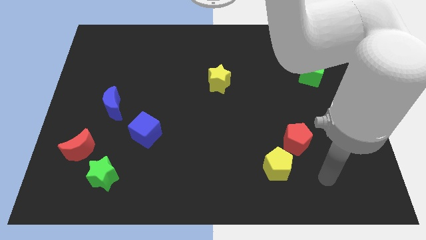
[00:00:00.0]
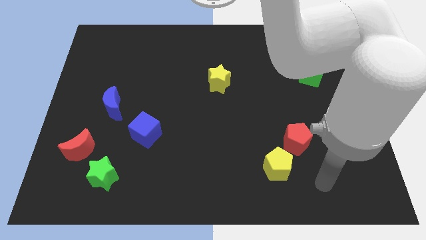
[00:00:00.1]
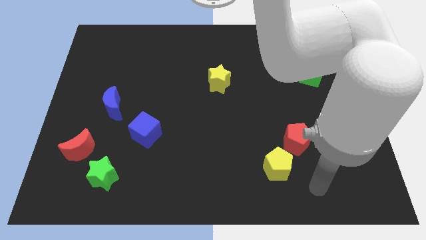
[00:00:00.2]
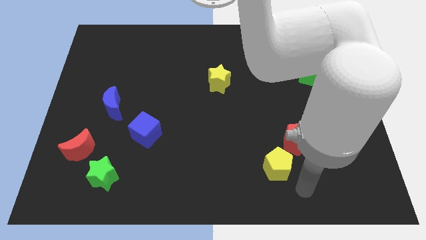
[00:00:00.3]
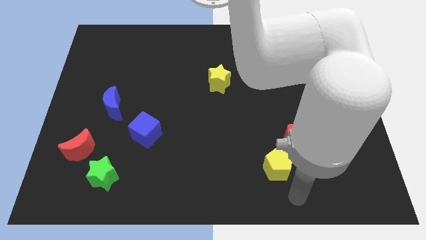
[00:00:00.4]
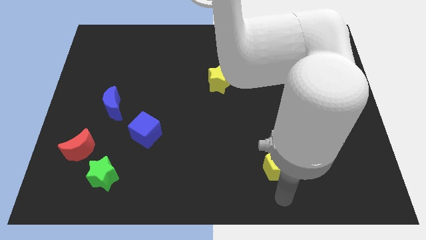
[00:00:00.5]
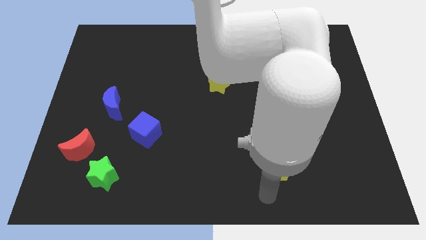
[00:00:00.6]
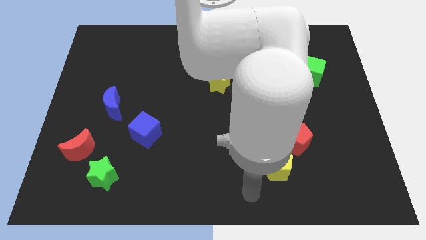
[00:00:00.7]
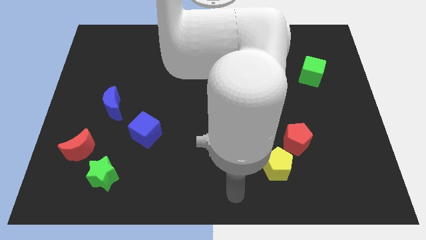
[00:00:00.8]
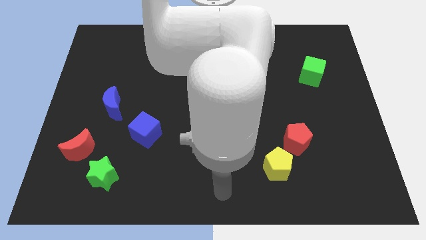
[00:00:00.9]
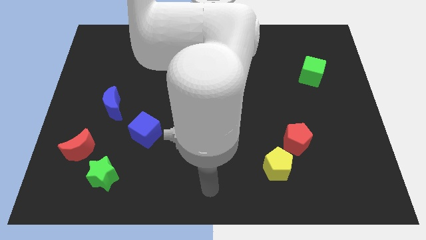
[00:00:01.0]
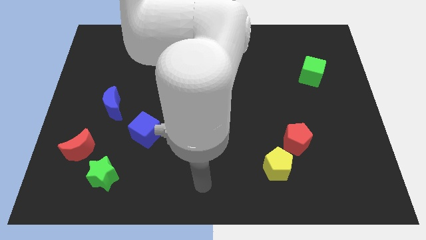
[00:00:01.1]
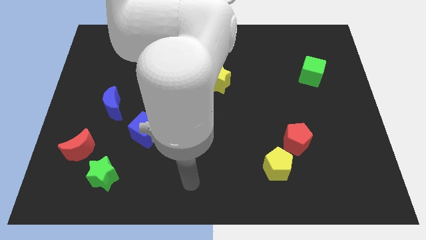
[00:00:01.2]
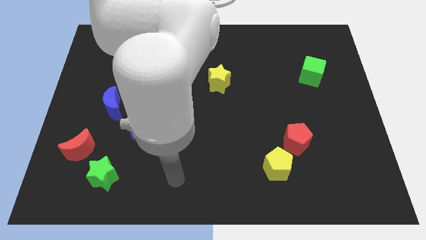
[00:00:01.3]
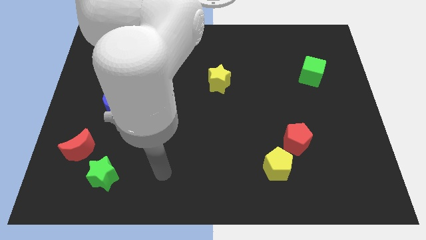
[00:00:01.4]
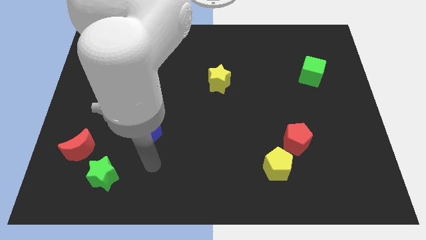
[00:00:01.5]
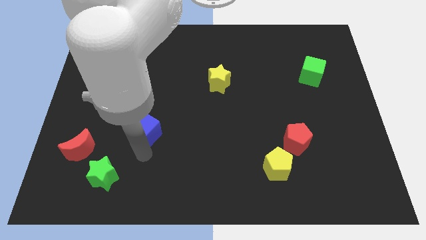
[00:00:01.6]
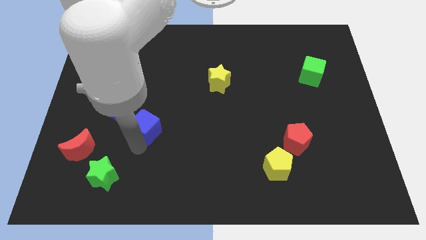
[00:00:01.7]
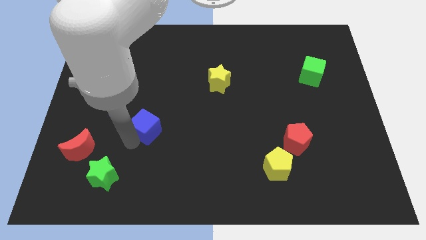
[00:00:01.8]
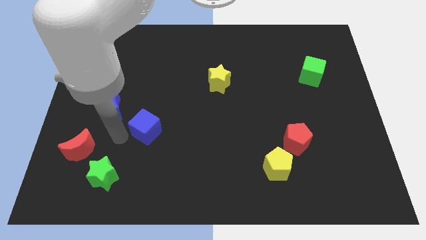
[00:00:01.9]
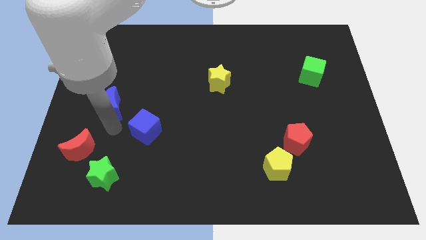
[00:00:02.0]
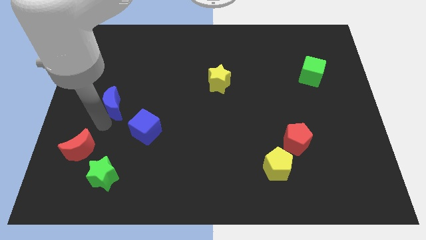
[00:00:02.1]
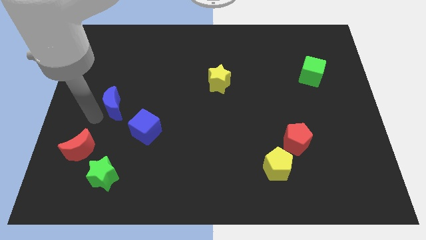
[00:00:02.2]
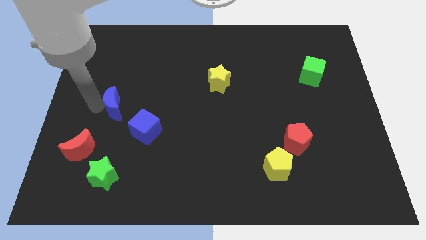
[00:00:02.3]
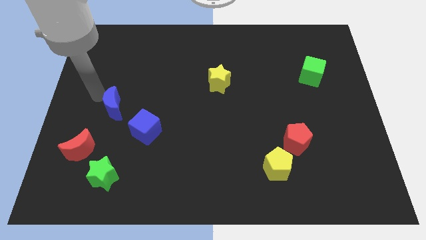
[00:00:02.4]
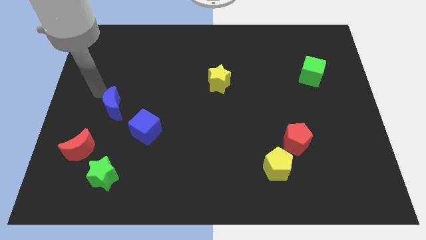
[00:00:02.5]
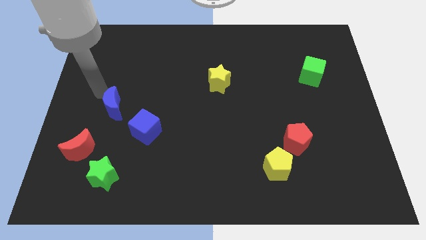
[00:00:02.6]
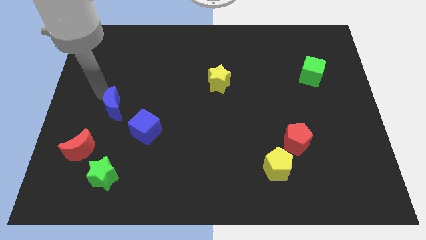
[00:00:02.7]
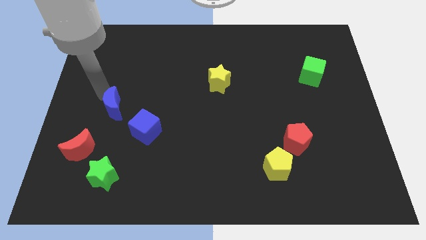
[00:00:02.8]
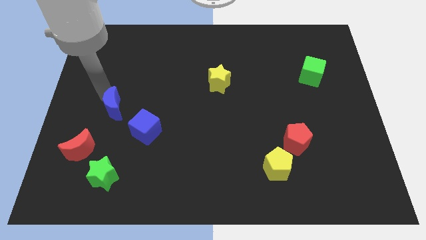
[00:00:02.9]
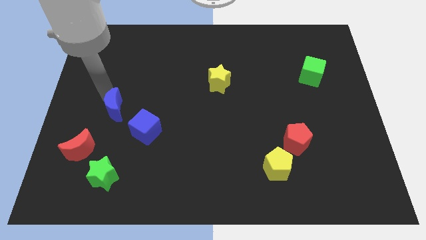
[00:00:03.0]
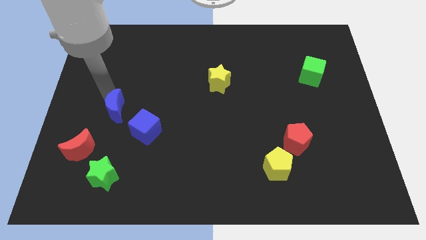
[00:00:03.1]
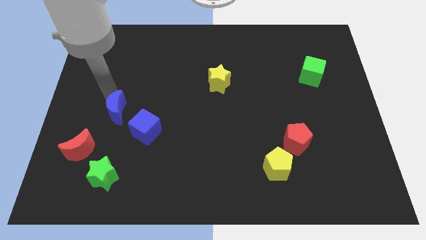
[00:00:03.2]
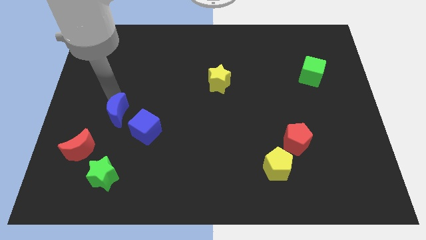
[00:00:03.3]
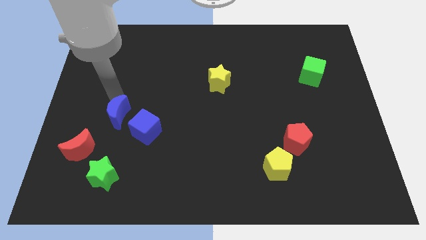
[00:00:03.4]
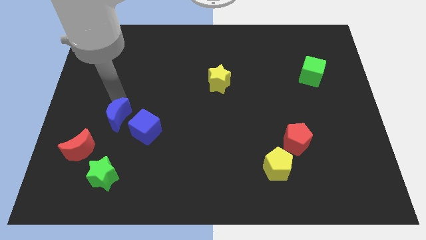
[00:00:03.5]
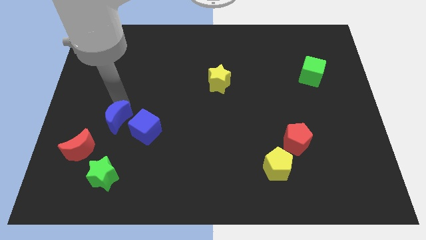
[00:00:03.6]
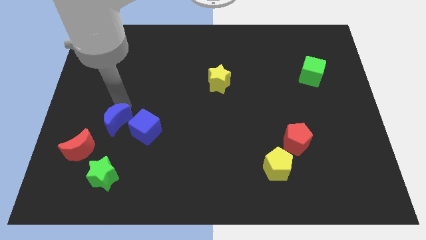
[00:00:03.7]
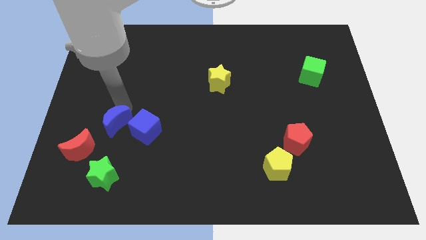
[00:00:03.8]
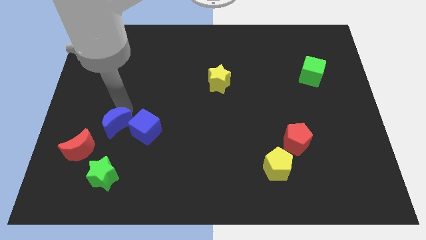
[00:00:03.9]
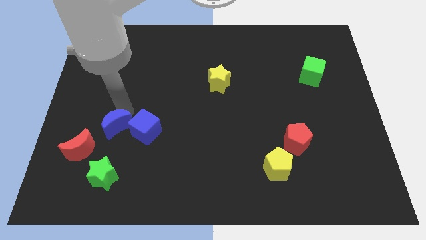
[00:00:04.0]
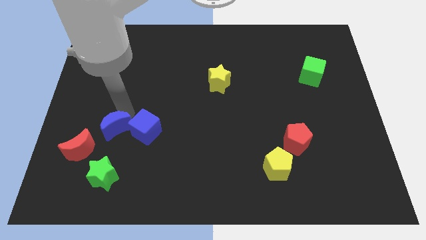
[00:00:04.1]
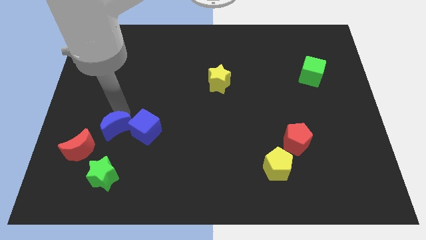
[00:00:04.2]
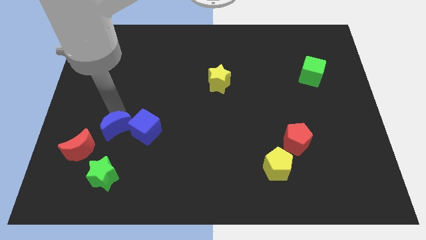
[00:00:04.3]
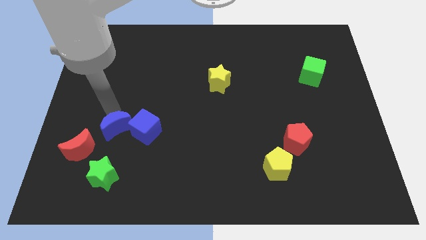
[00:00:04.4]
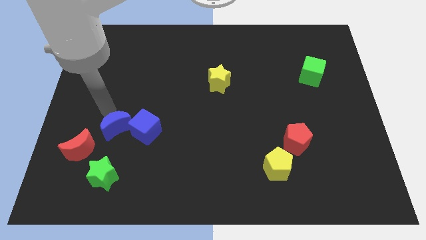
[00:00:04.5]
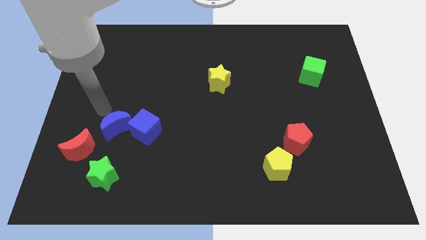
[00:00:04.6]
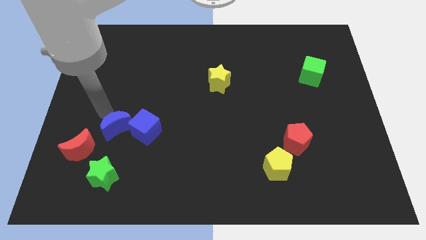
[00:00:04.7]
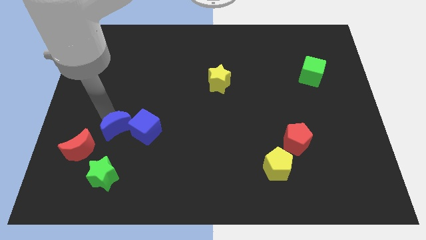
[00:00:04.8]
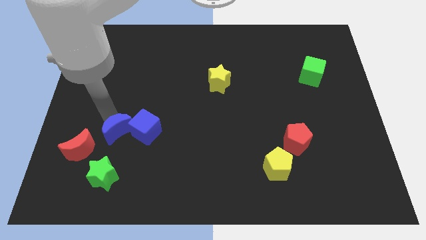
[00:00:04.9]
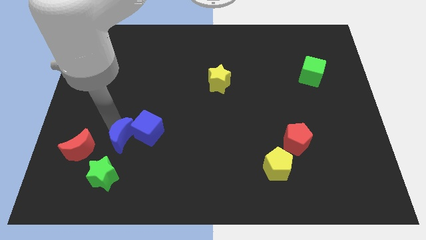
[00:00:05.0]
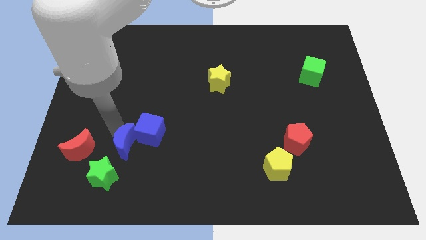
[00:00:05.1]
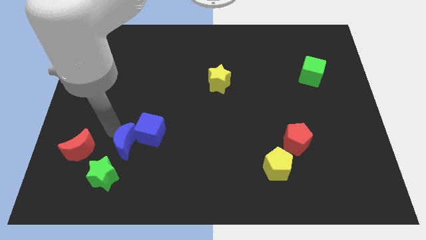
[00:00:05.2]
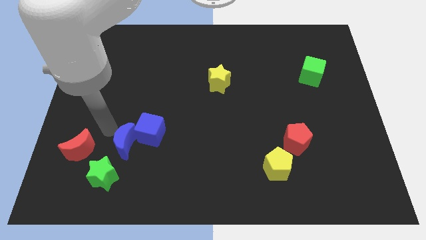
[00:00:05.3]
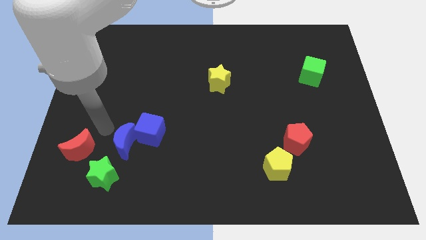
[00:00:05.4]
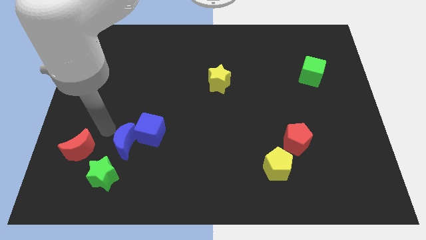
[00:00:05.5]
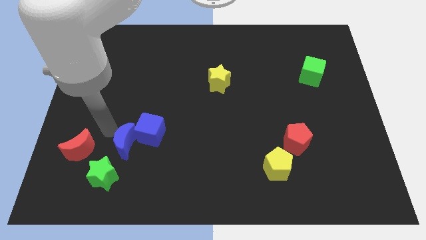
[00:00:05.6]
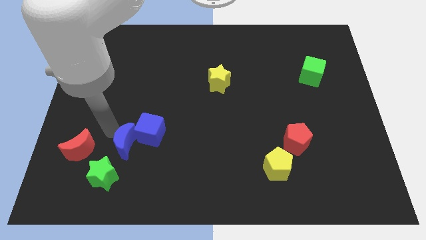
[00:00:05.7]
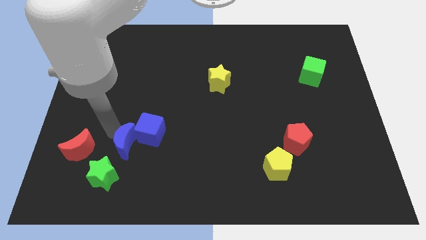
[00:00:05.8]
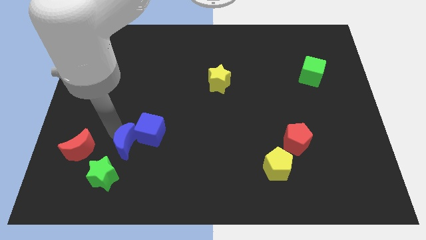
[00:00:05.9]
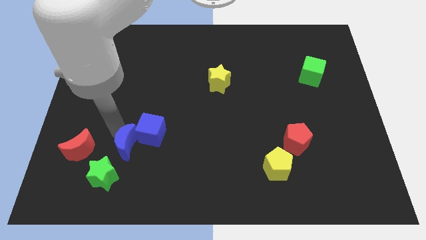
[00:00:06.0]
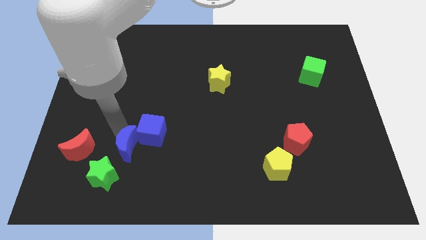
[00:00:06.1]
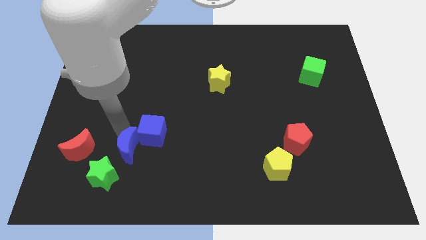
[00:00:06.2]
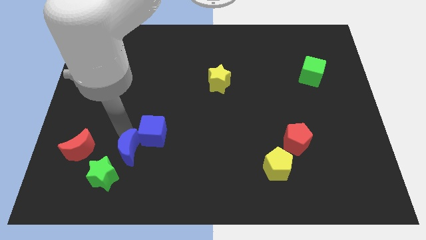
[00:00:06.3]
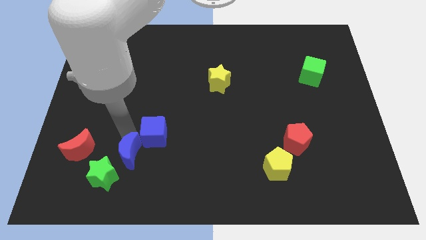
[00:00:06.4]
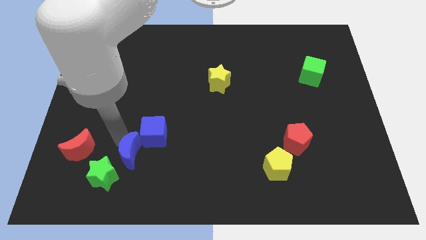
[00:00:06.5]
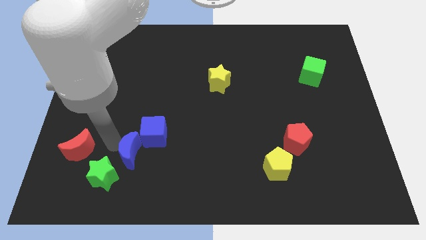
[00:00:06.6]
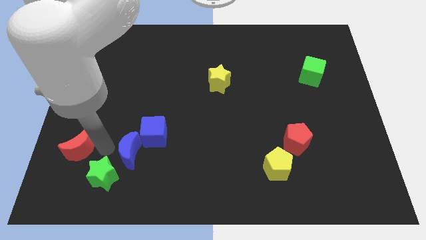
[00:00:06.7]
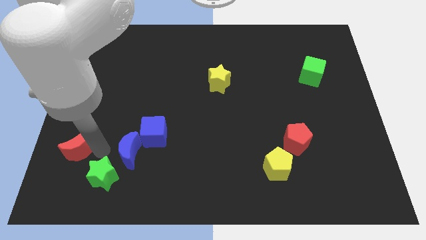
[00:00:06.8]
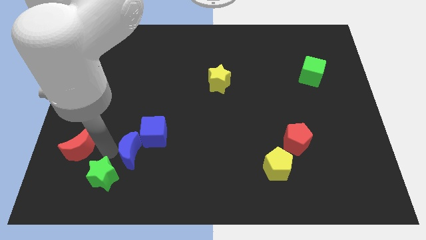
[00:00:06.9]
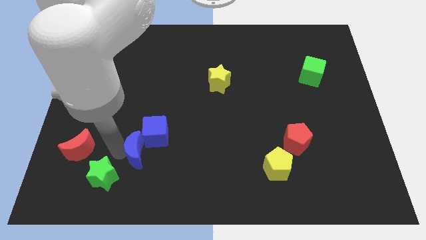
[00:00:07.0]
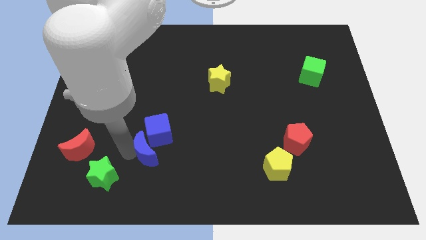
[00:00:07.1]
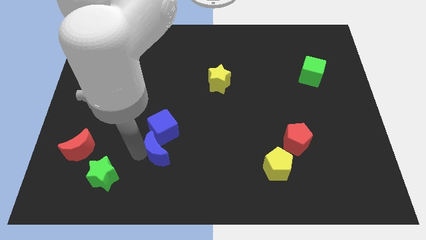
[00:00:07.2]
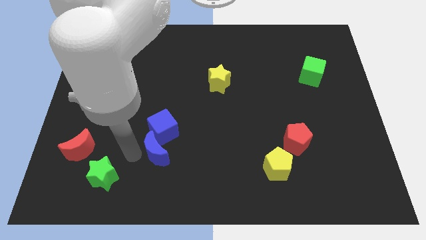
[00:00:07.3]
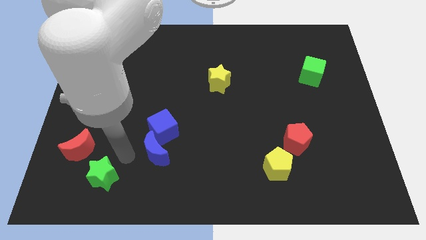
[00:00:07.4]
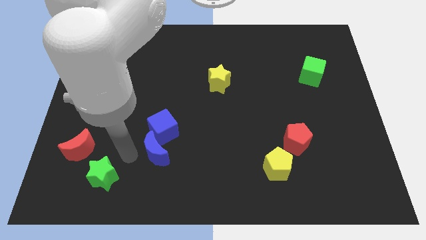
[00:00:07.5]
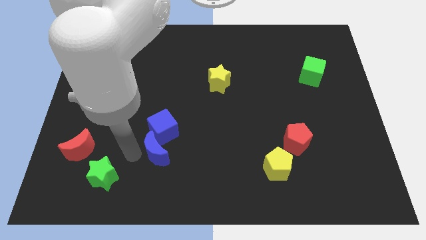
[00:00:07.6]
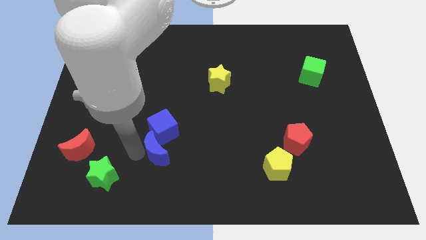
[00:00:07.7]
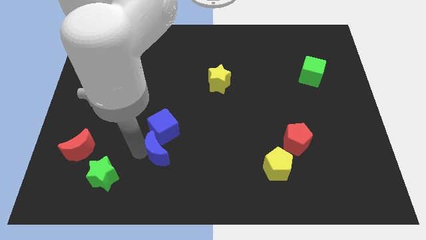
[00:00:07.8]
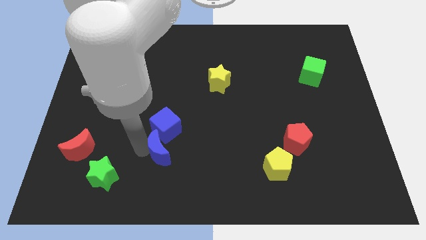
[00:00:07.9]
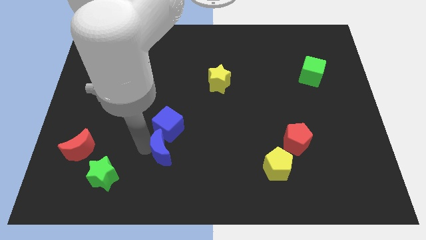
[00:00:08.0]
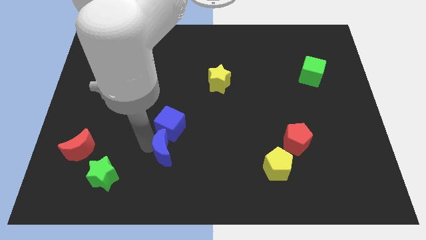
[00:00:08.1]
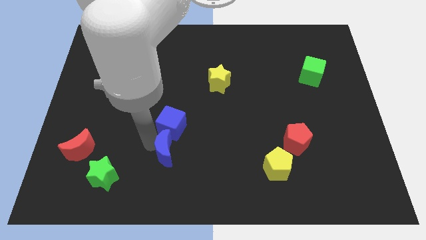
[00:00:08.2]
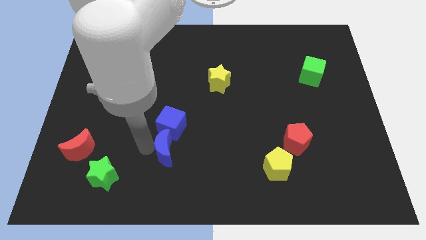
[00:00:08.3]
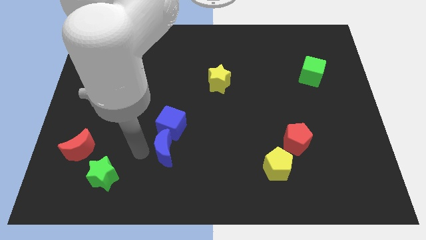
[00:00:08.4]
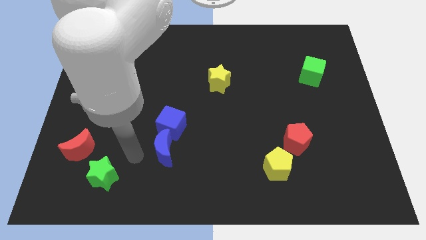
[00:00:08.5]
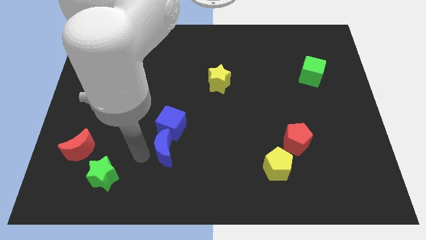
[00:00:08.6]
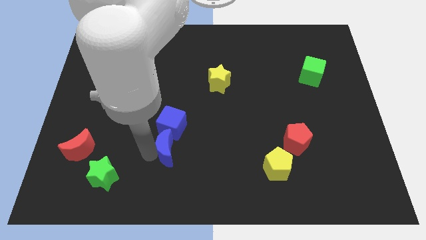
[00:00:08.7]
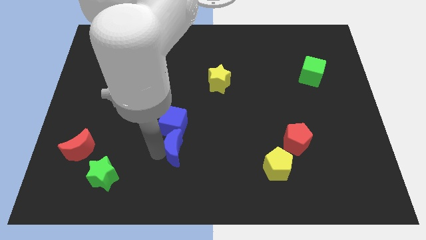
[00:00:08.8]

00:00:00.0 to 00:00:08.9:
move the blue moon diagonally down and to the right of the blue cube
